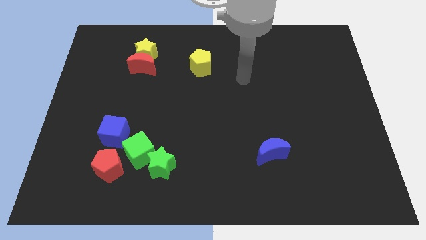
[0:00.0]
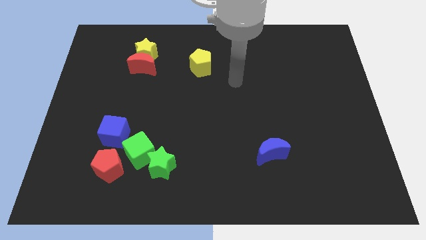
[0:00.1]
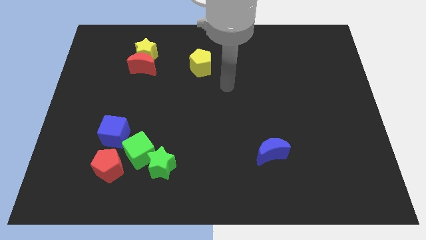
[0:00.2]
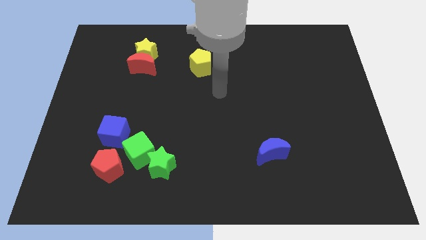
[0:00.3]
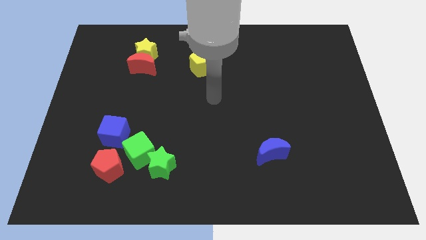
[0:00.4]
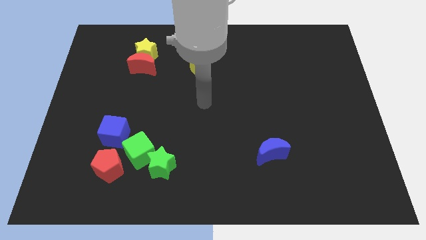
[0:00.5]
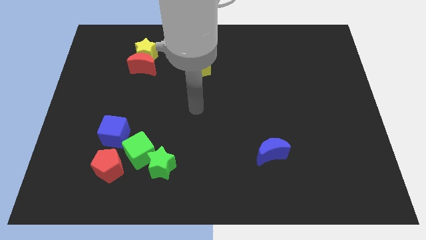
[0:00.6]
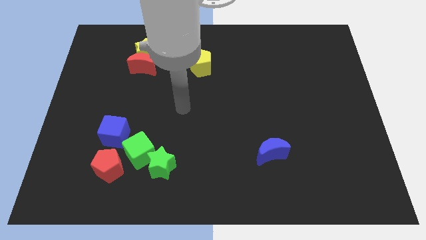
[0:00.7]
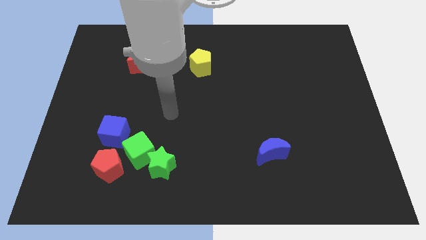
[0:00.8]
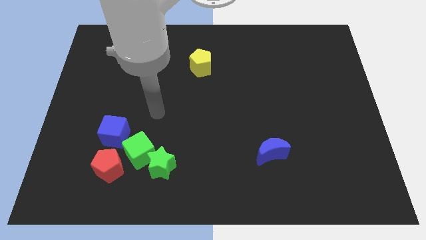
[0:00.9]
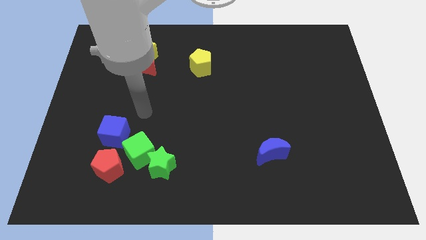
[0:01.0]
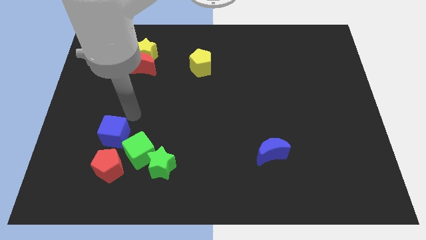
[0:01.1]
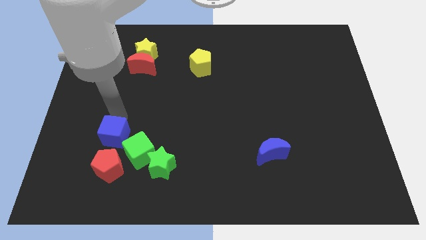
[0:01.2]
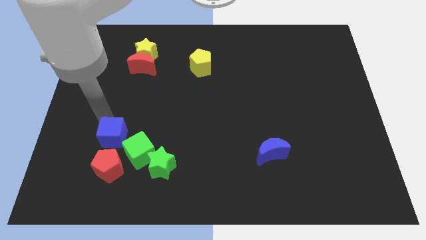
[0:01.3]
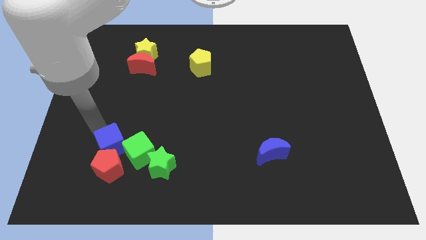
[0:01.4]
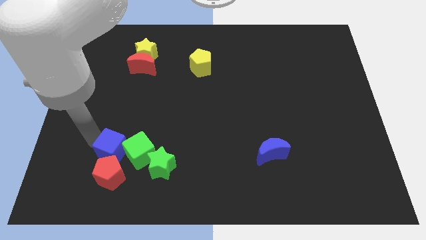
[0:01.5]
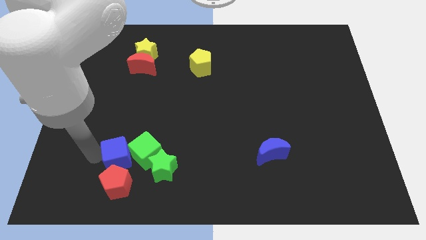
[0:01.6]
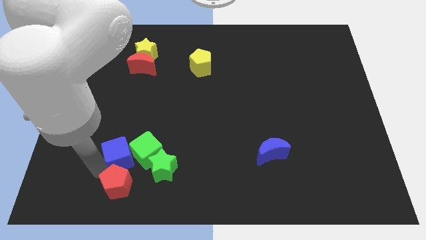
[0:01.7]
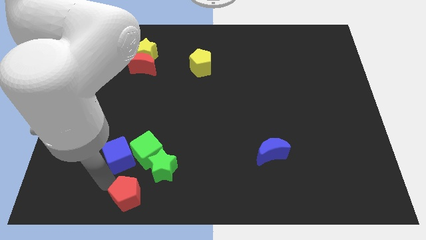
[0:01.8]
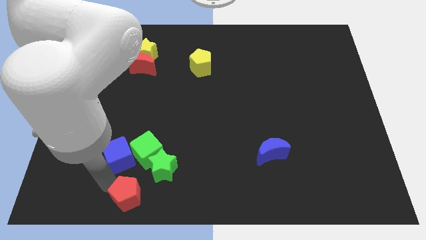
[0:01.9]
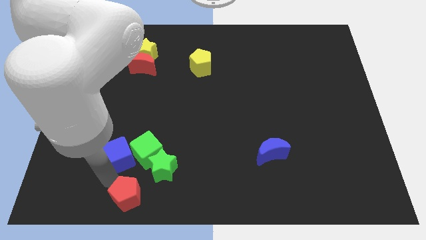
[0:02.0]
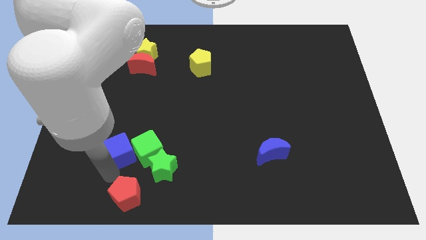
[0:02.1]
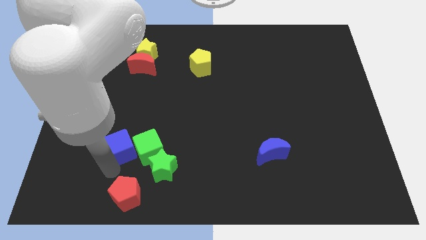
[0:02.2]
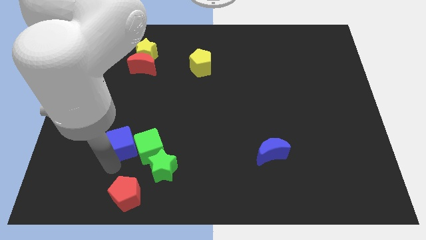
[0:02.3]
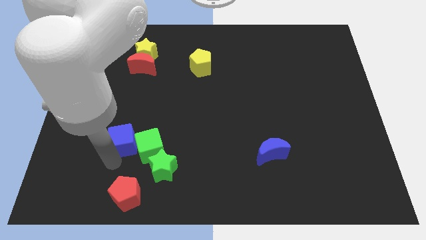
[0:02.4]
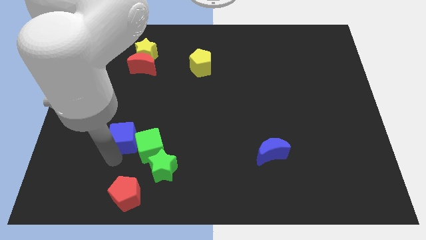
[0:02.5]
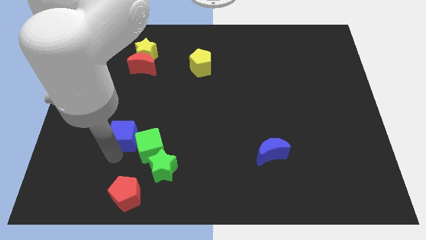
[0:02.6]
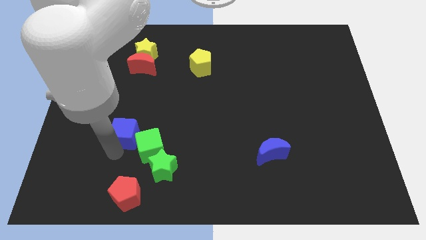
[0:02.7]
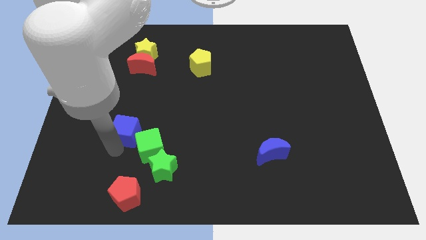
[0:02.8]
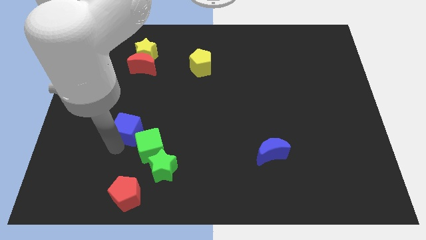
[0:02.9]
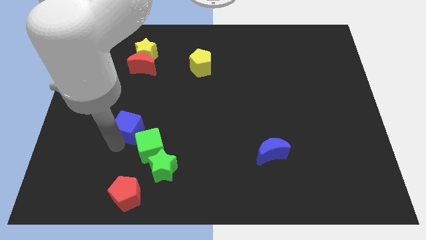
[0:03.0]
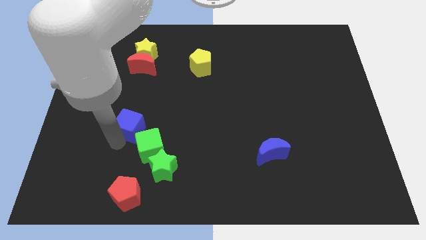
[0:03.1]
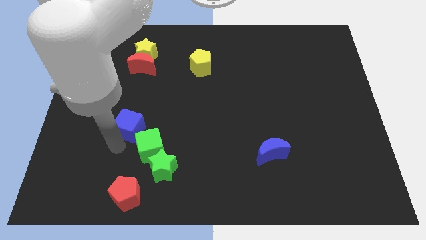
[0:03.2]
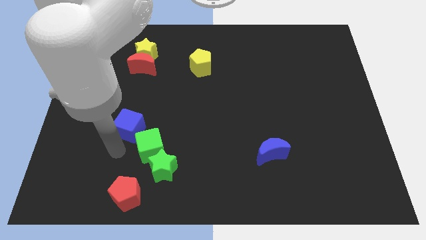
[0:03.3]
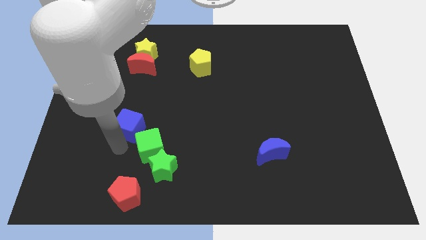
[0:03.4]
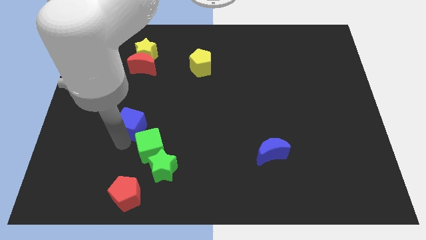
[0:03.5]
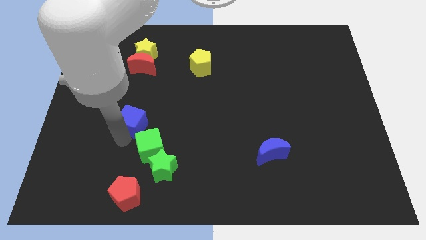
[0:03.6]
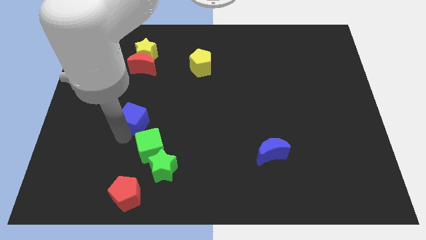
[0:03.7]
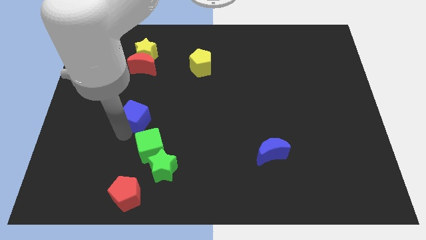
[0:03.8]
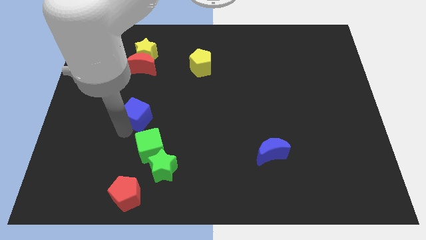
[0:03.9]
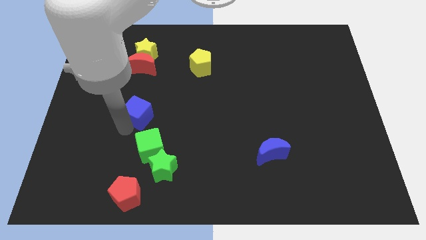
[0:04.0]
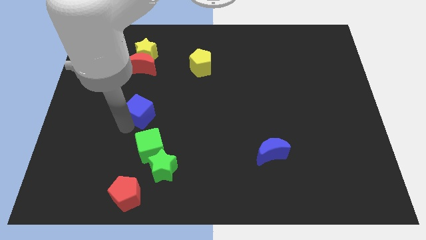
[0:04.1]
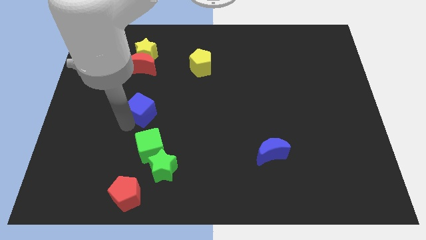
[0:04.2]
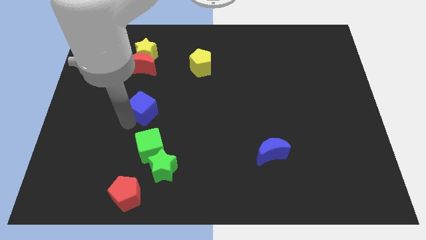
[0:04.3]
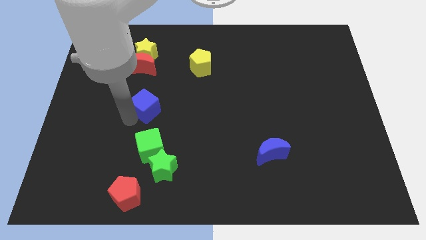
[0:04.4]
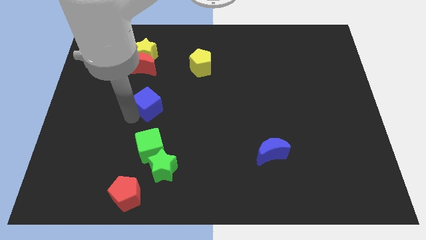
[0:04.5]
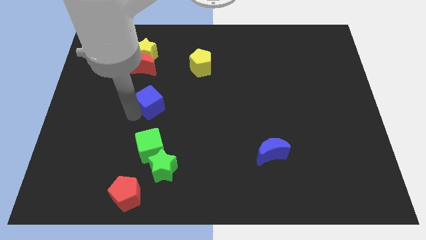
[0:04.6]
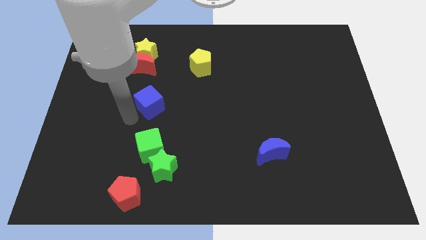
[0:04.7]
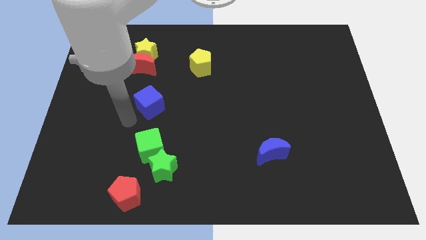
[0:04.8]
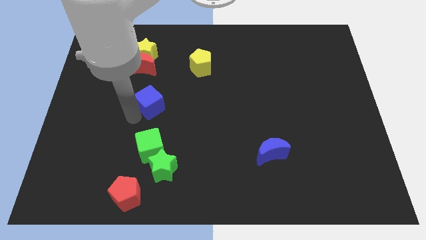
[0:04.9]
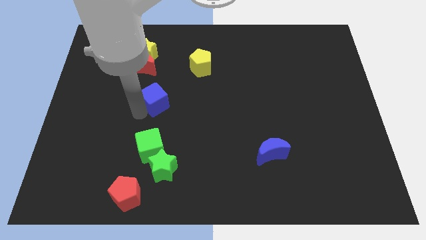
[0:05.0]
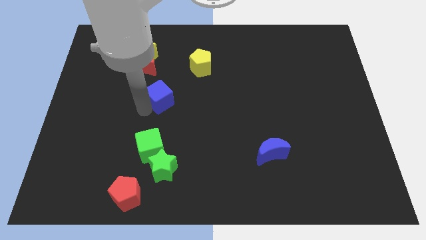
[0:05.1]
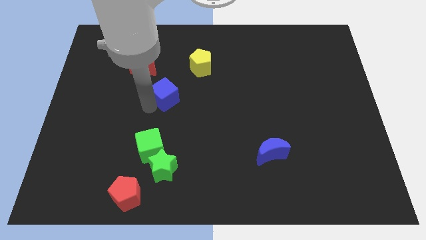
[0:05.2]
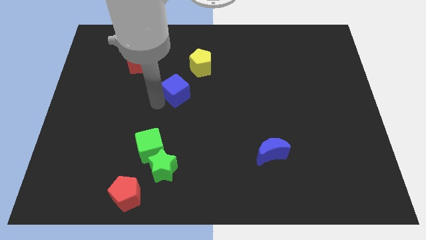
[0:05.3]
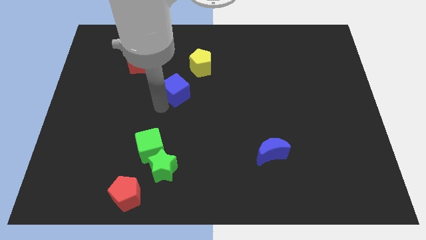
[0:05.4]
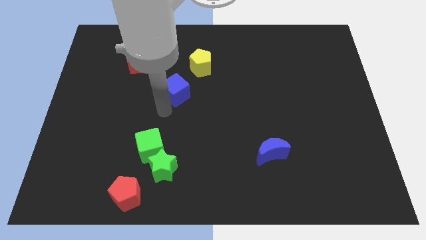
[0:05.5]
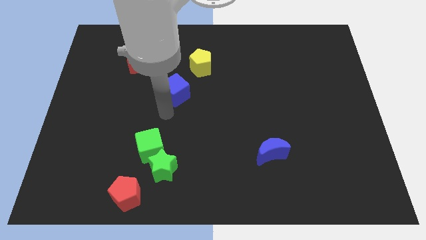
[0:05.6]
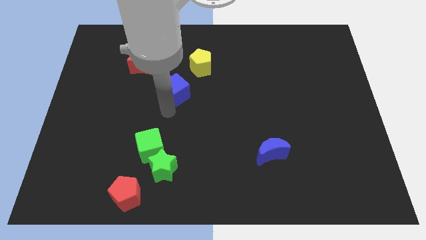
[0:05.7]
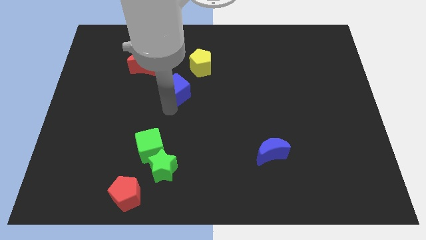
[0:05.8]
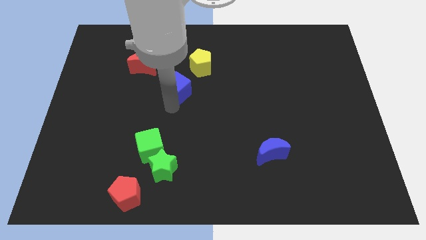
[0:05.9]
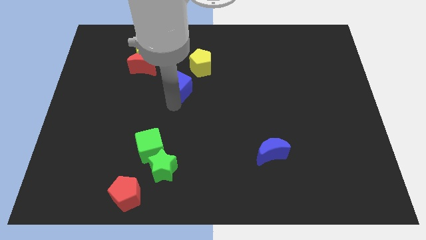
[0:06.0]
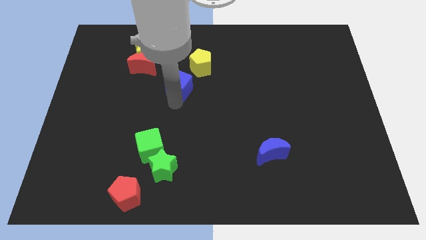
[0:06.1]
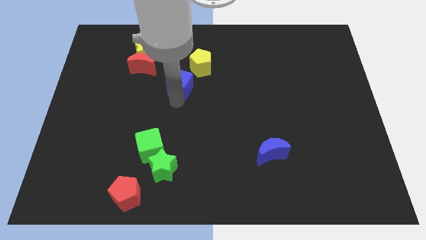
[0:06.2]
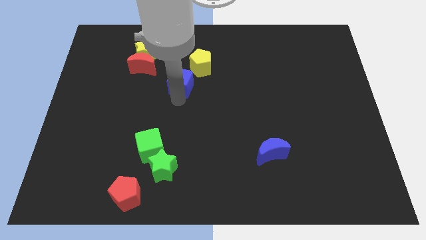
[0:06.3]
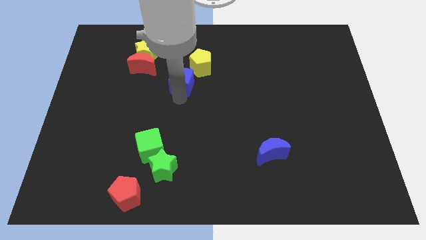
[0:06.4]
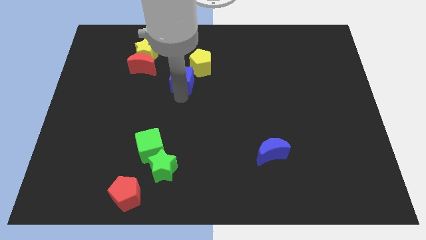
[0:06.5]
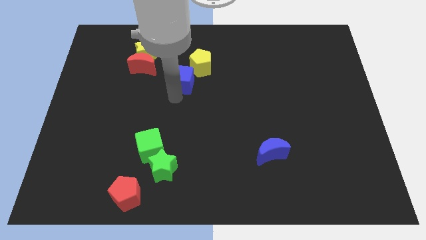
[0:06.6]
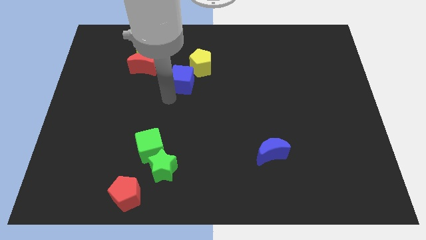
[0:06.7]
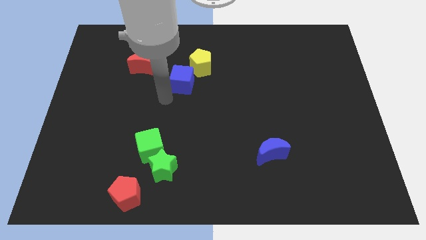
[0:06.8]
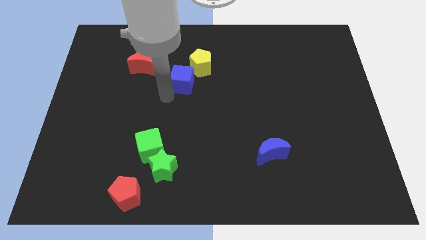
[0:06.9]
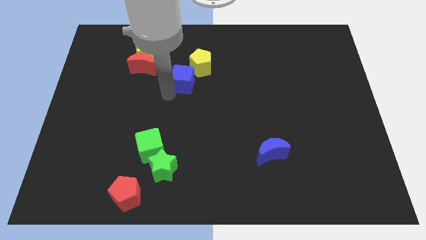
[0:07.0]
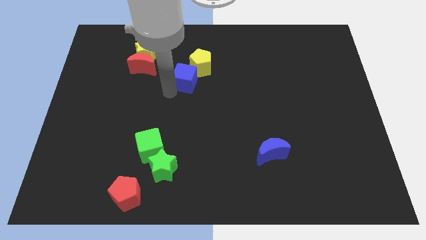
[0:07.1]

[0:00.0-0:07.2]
move the blue cube close to the yellow pentagon
